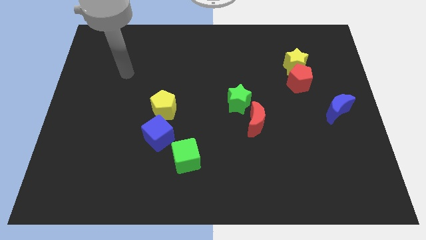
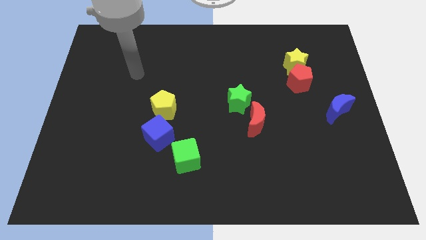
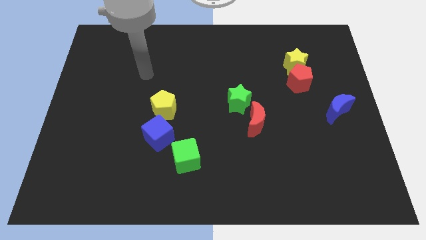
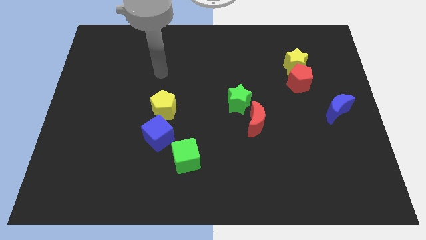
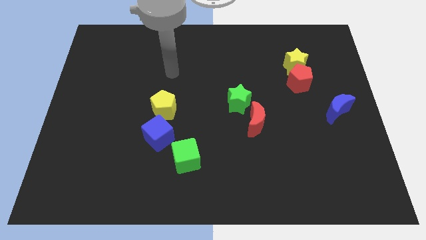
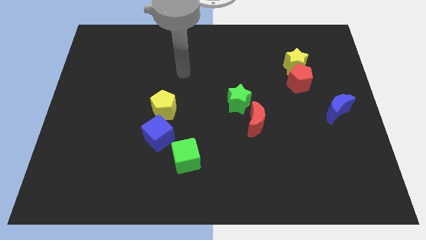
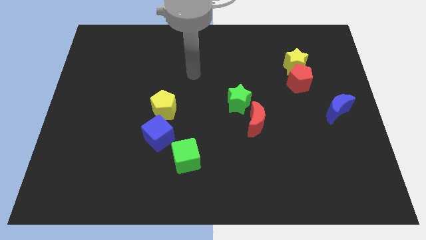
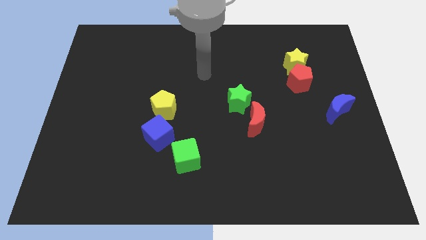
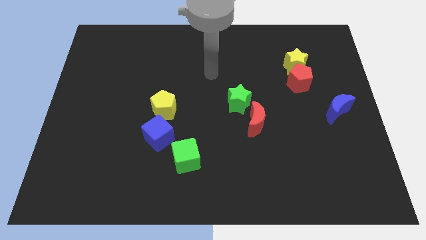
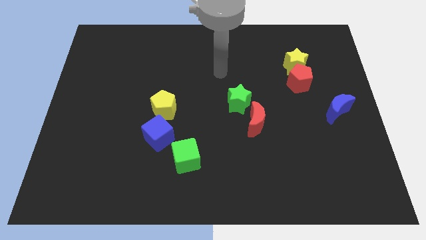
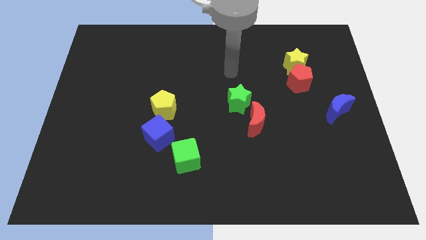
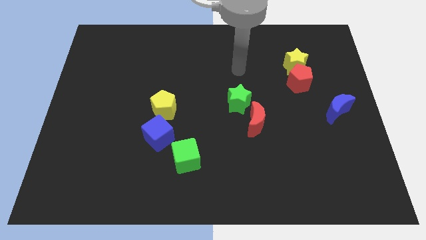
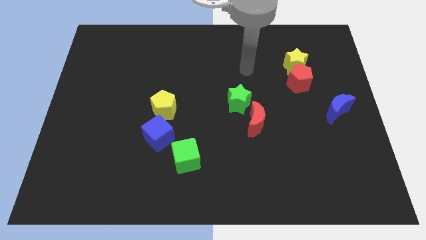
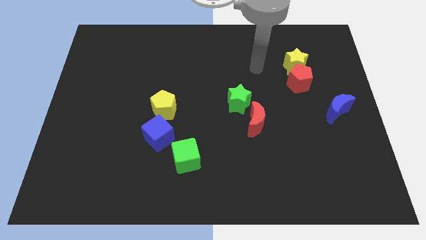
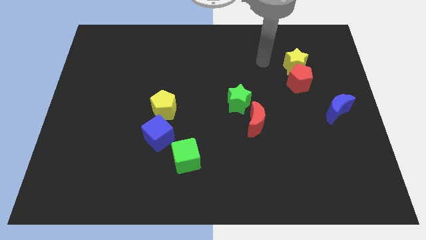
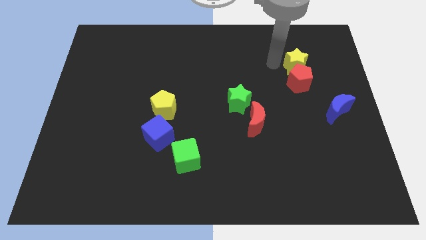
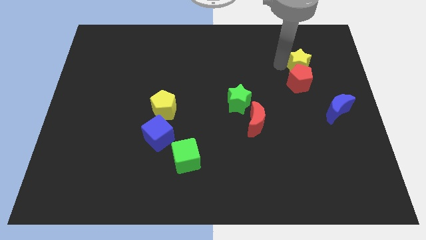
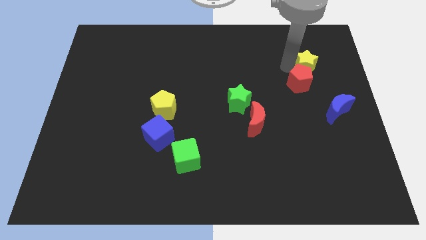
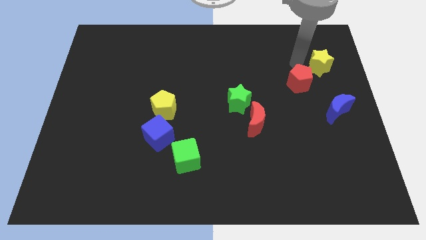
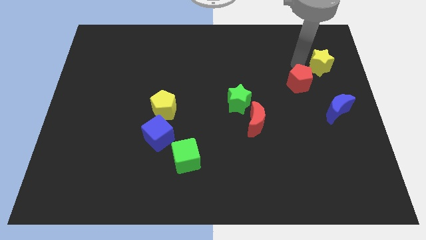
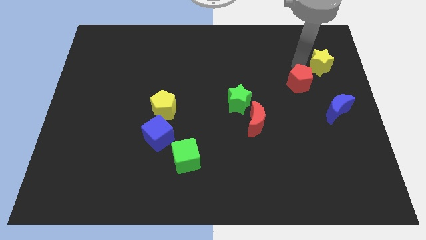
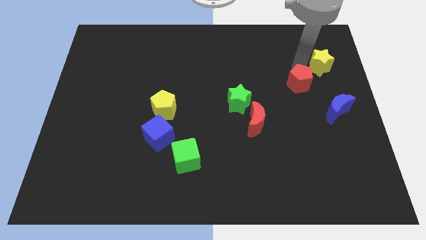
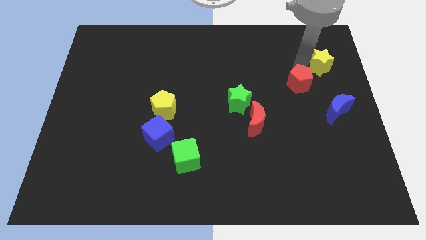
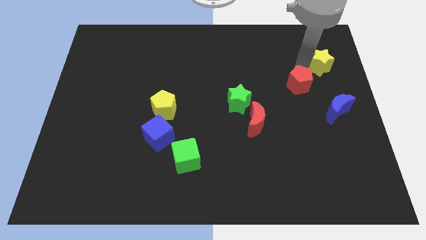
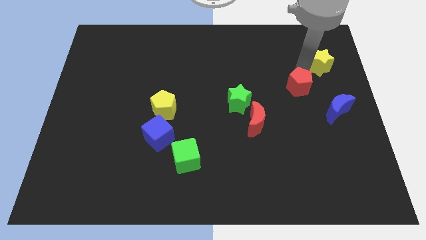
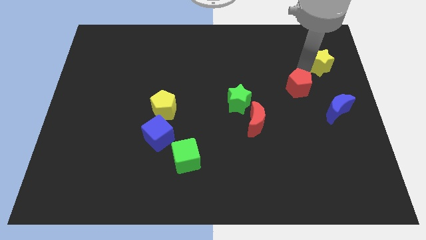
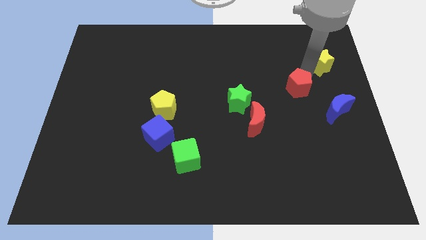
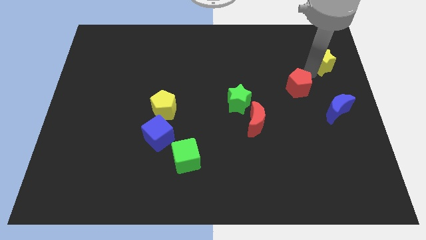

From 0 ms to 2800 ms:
move the red pentagon away from the yellow star

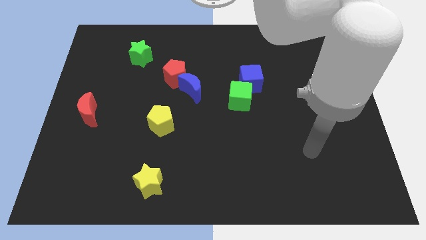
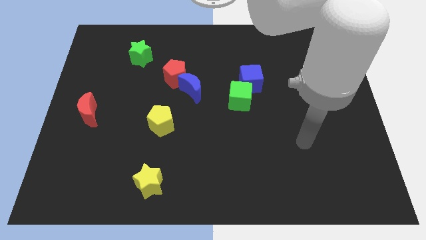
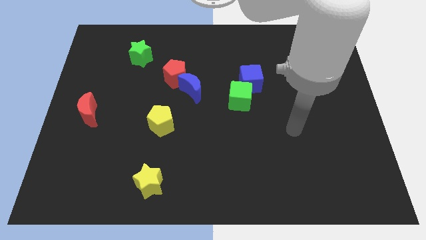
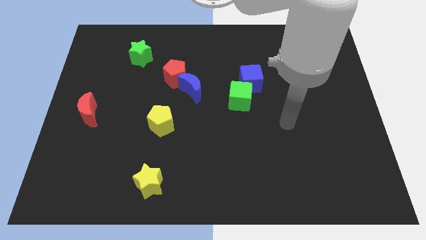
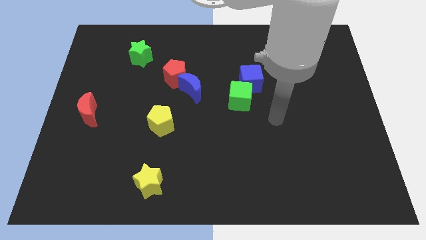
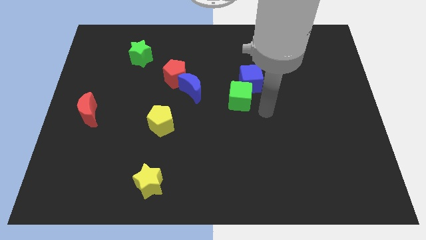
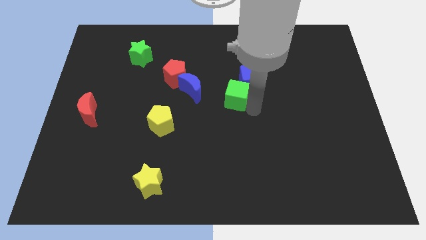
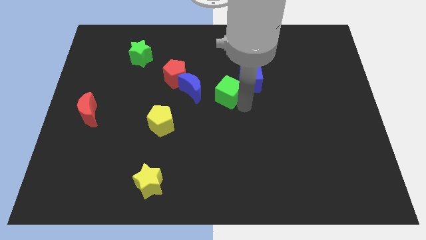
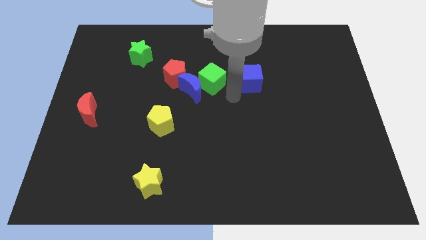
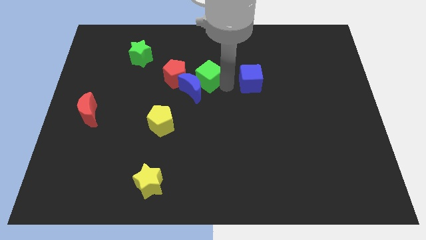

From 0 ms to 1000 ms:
move the blue cube away from the green cube

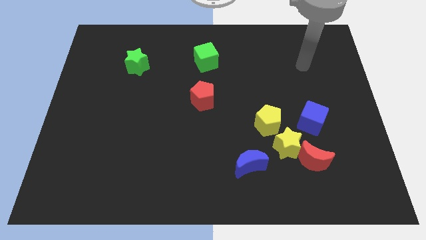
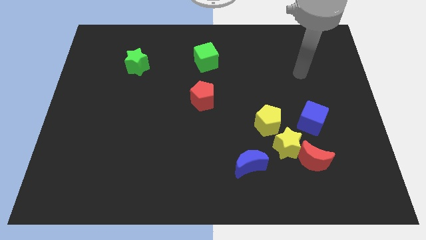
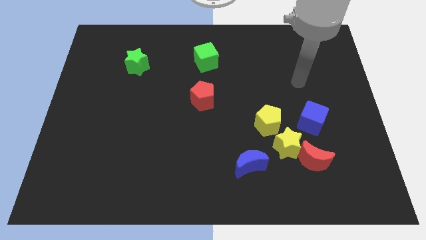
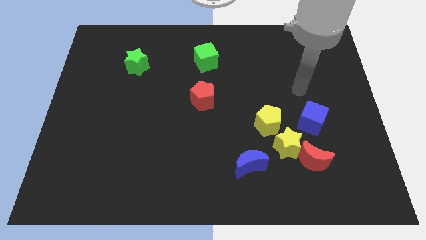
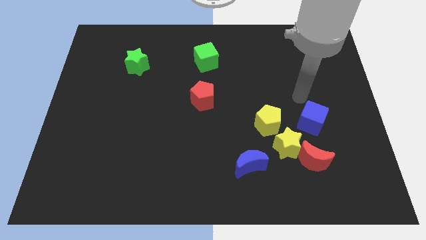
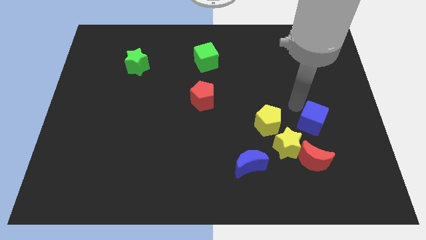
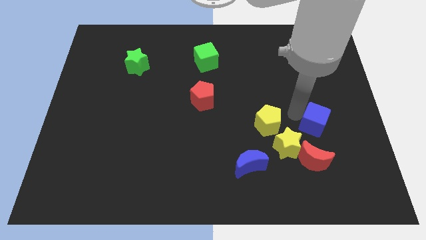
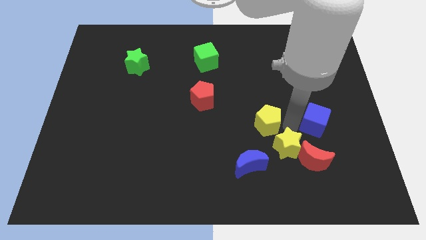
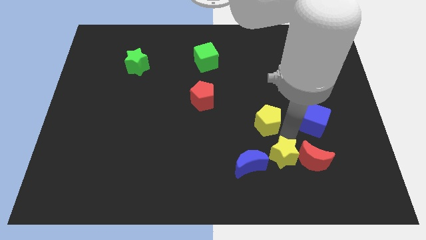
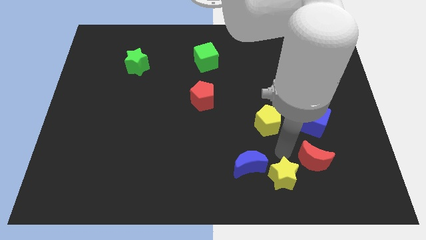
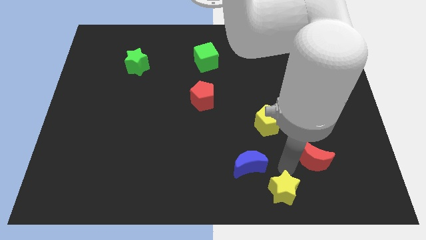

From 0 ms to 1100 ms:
move the red moon away from the yellow star

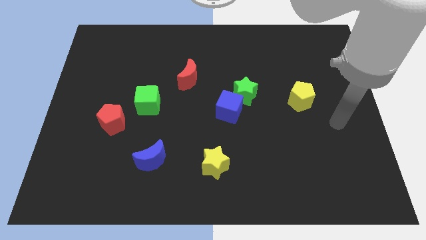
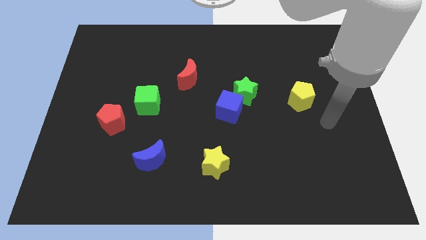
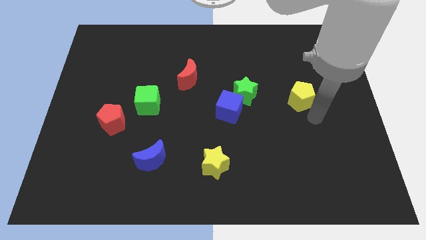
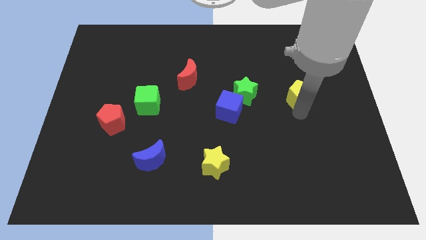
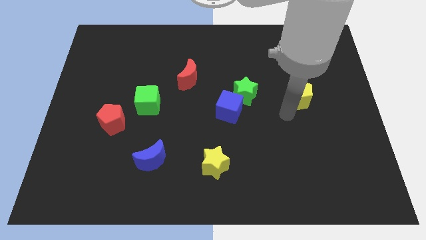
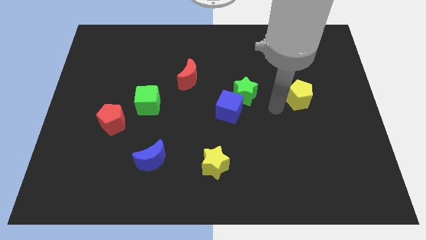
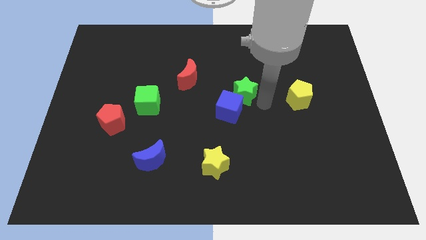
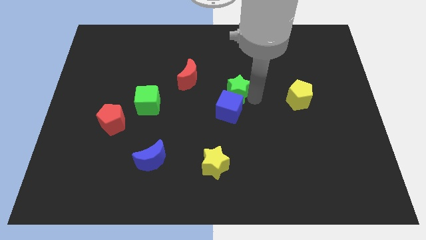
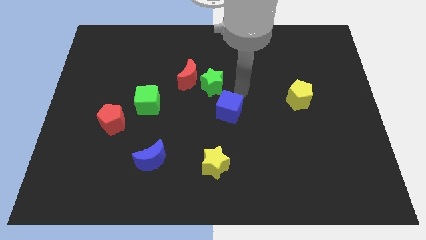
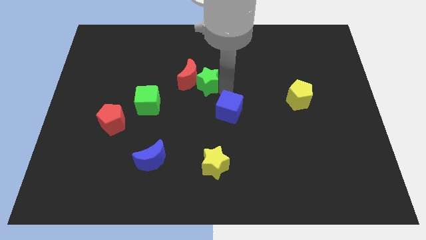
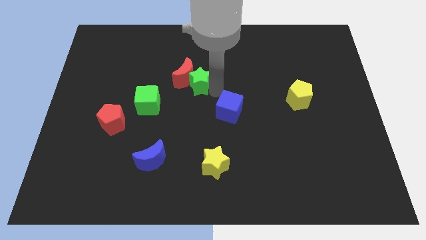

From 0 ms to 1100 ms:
separate the blue cube from the green star

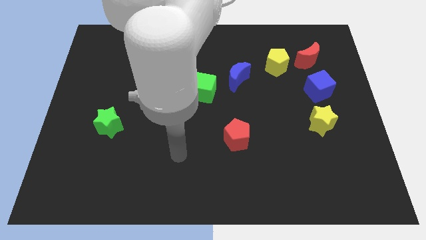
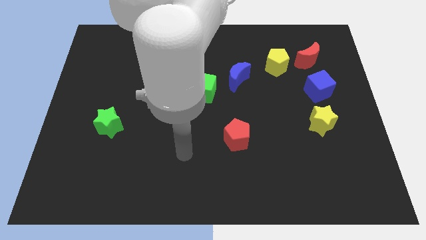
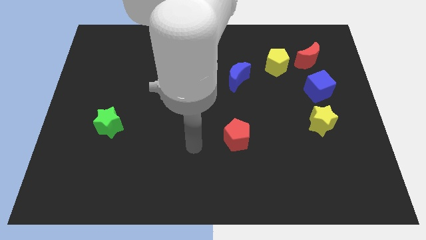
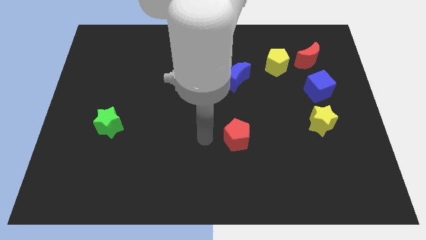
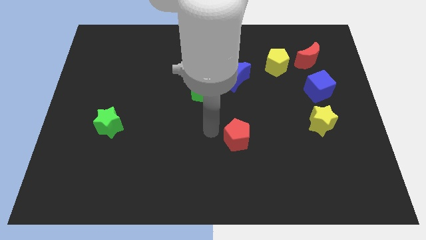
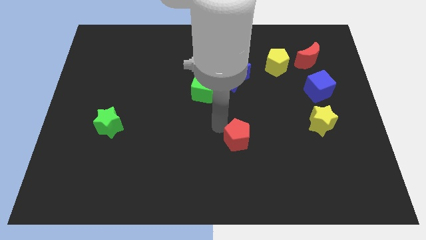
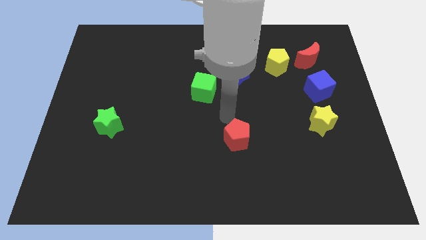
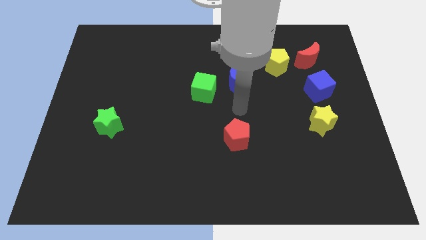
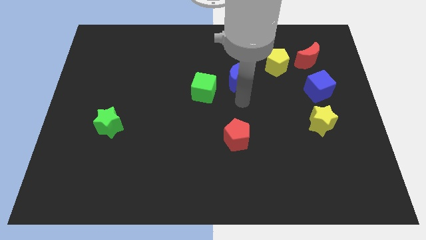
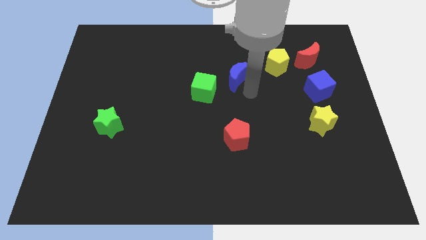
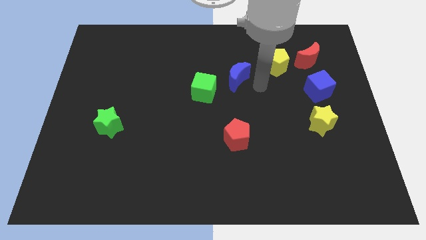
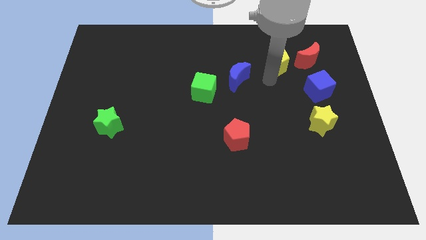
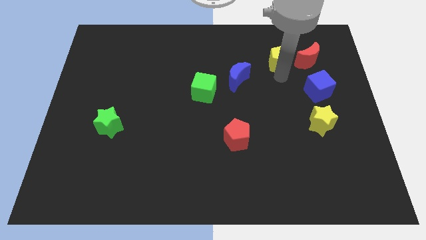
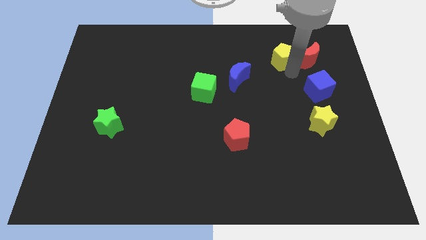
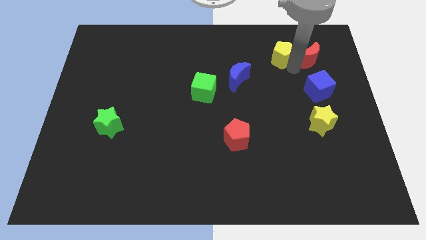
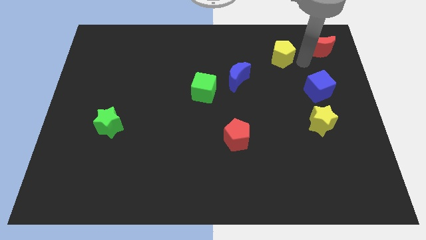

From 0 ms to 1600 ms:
pull the yellow pentagon apart from the red moon

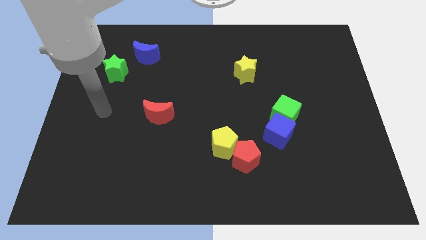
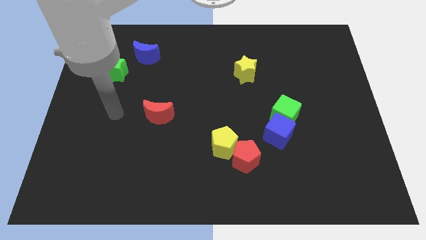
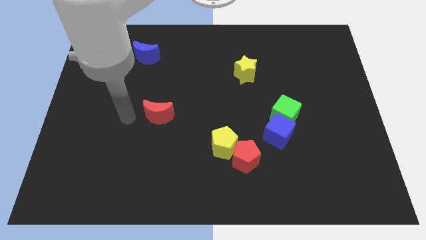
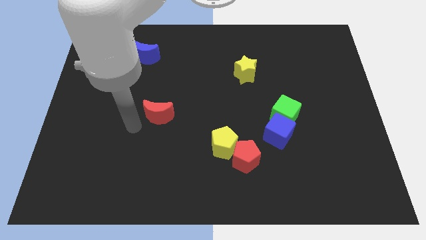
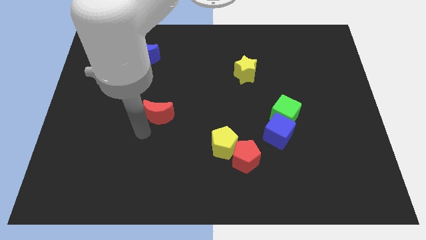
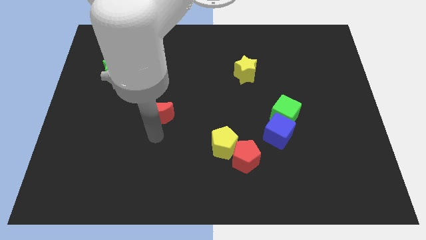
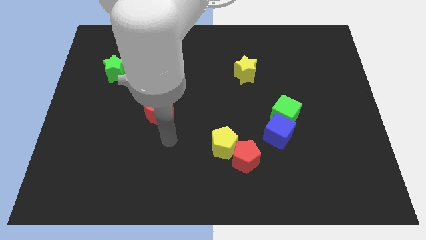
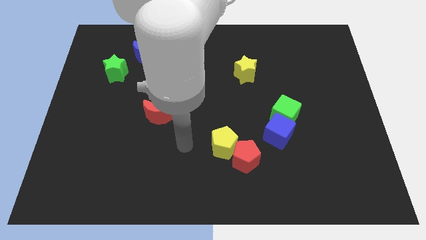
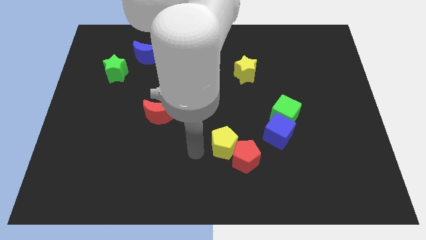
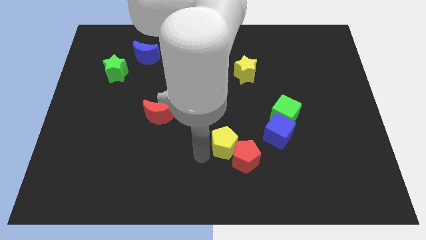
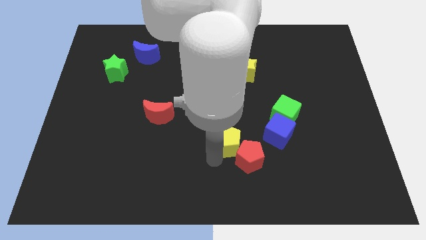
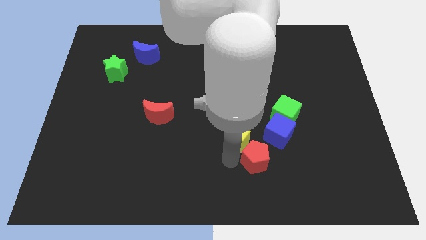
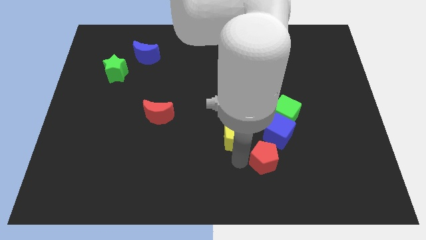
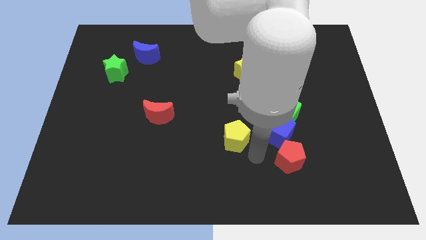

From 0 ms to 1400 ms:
separate the yellow pentagon from the red pentagon

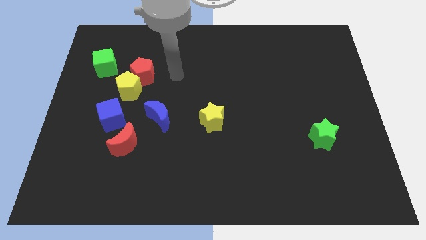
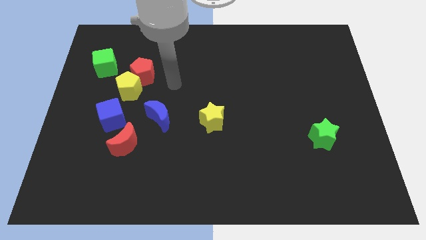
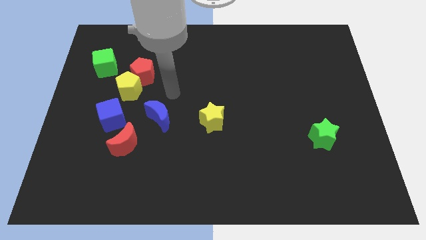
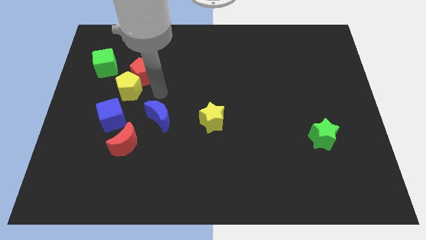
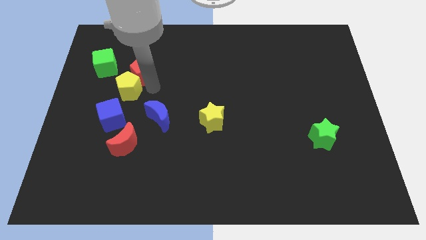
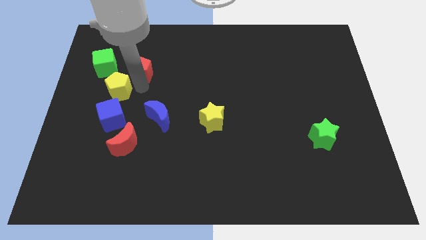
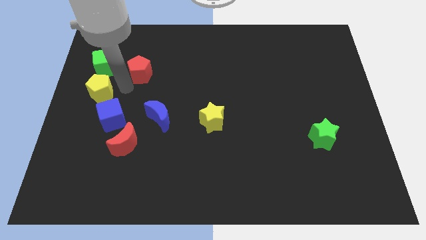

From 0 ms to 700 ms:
move the red pentagon away from the yellow pentagon
